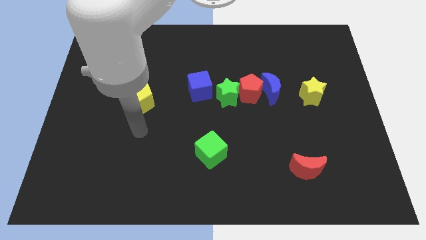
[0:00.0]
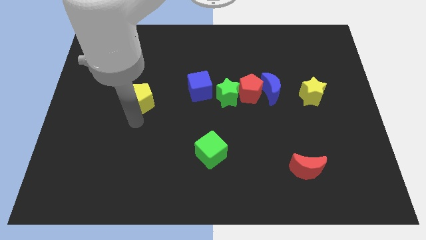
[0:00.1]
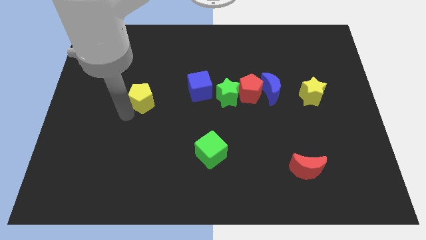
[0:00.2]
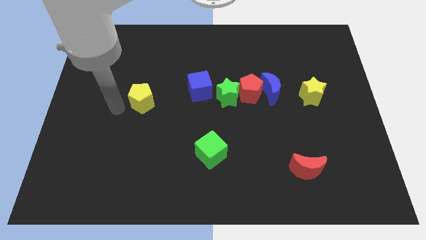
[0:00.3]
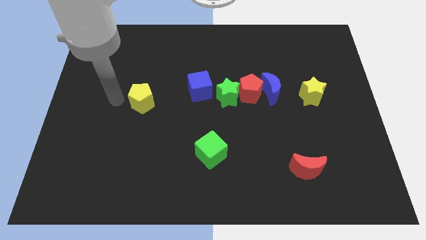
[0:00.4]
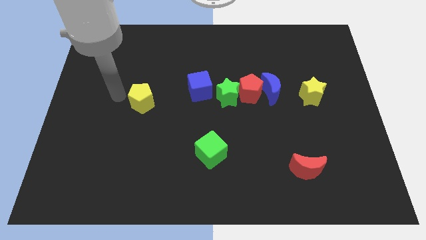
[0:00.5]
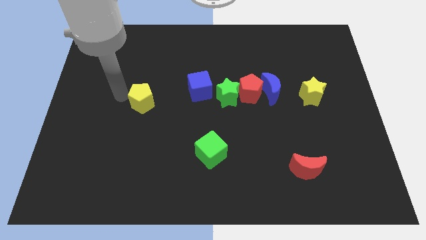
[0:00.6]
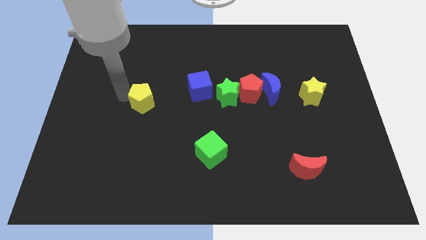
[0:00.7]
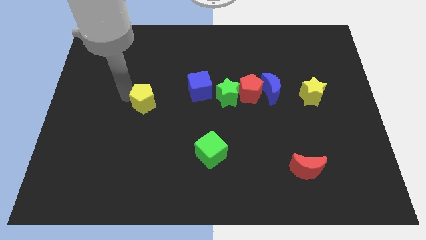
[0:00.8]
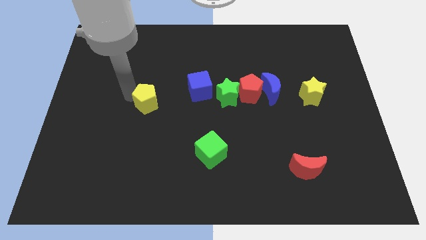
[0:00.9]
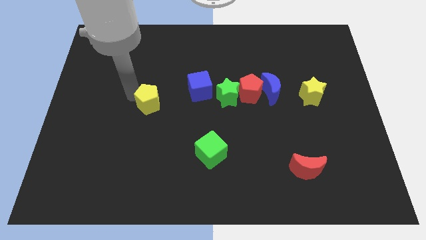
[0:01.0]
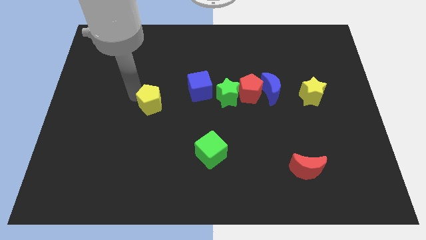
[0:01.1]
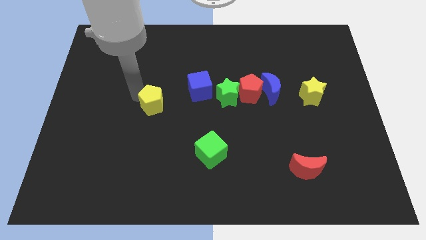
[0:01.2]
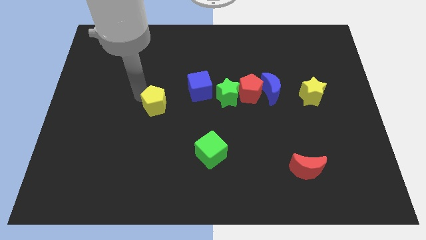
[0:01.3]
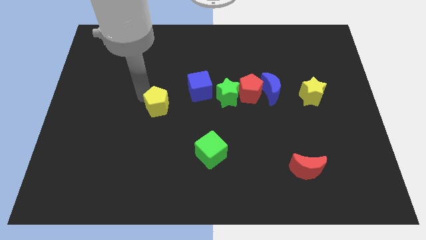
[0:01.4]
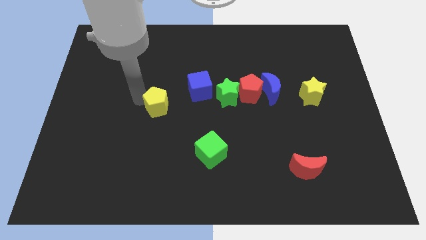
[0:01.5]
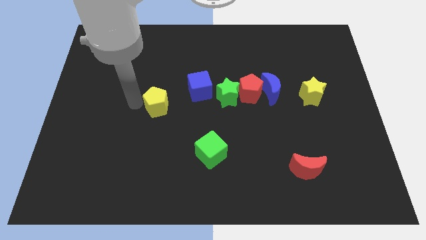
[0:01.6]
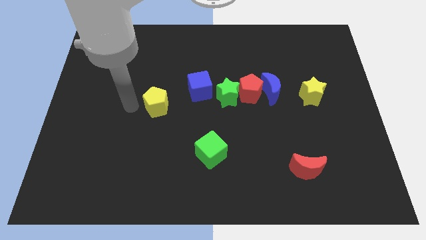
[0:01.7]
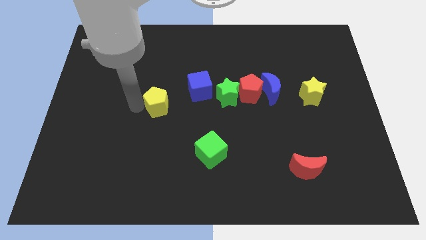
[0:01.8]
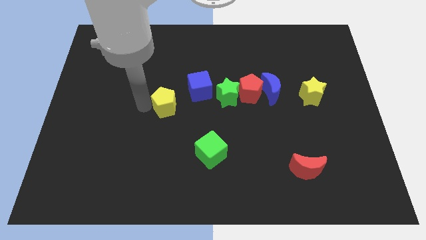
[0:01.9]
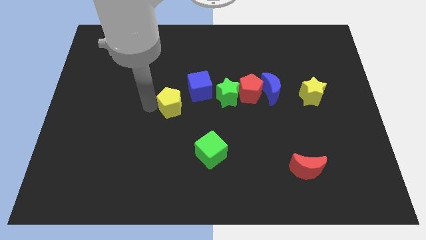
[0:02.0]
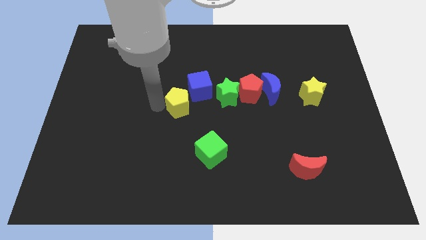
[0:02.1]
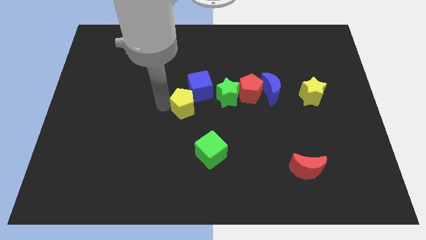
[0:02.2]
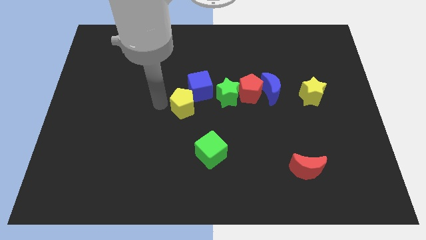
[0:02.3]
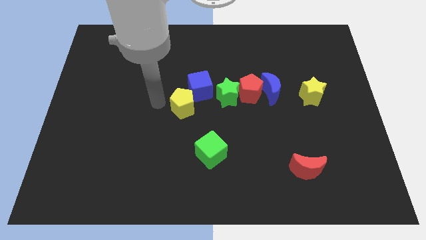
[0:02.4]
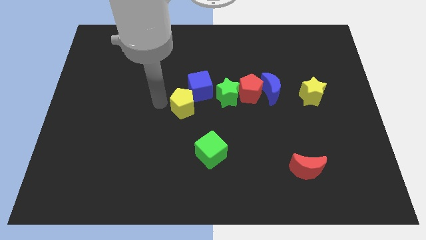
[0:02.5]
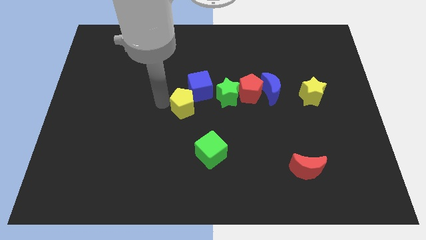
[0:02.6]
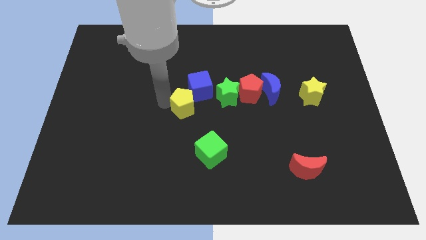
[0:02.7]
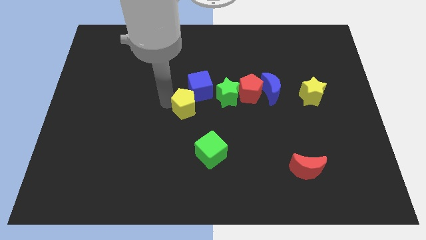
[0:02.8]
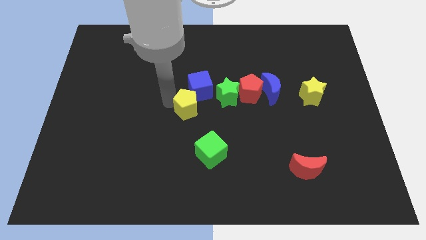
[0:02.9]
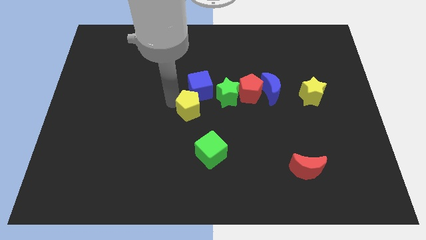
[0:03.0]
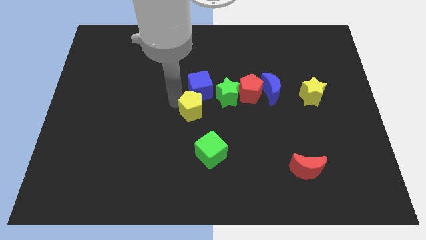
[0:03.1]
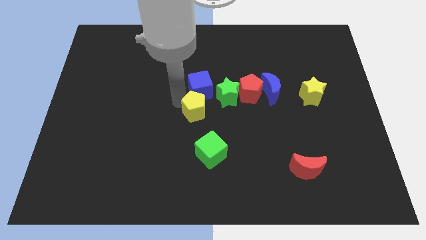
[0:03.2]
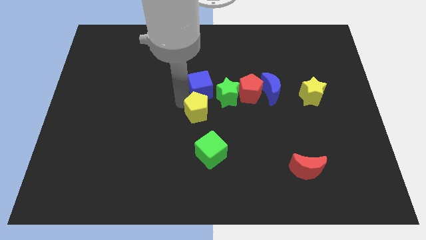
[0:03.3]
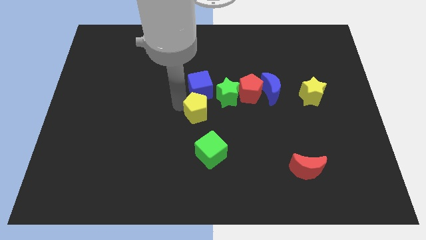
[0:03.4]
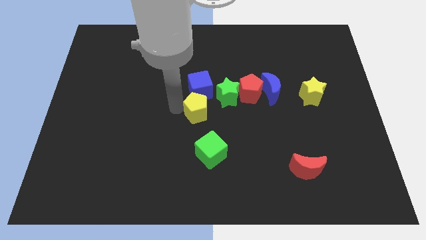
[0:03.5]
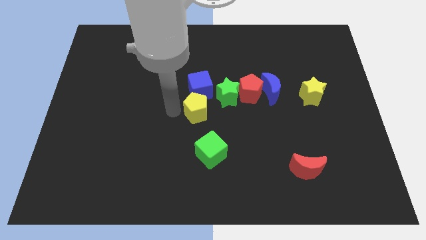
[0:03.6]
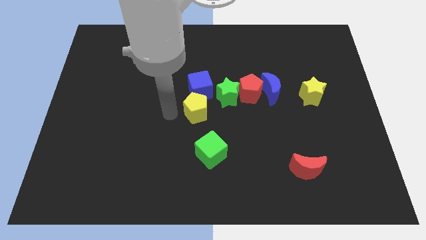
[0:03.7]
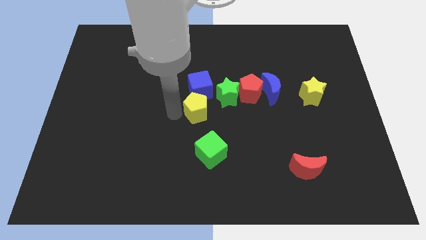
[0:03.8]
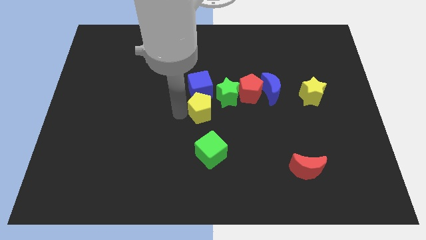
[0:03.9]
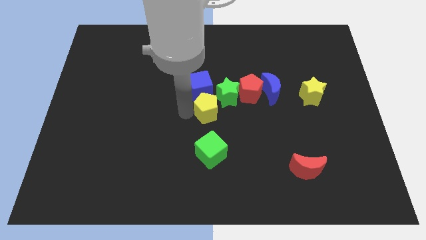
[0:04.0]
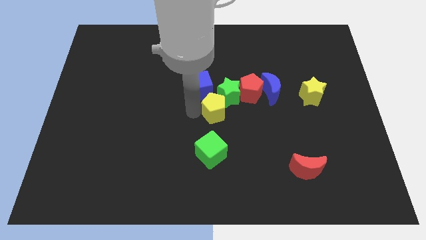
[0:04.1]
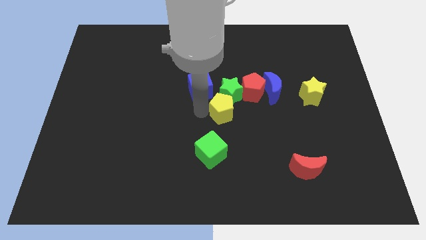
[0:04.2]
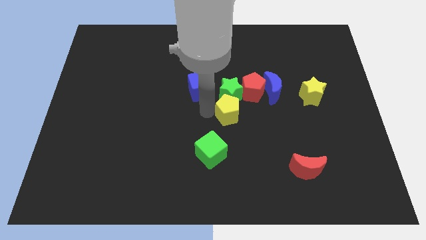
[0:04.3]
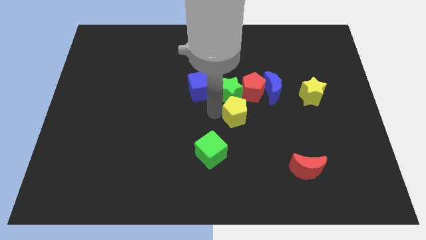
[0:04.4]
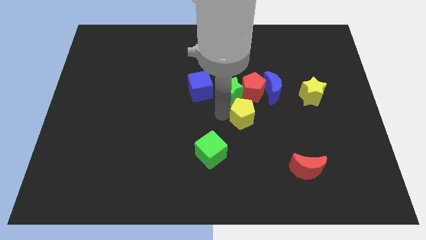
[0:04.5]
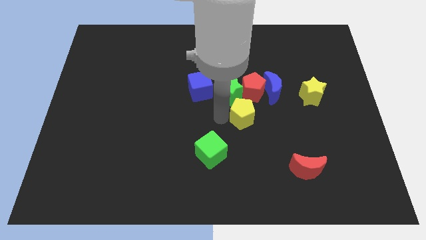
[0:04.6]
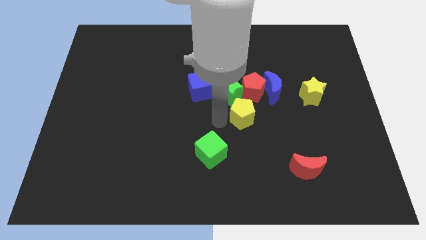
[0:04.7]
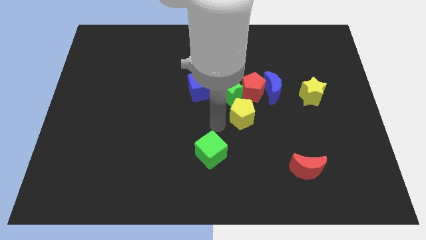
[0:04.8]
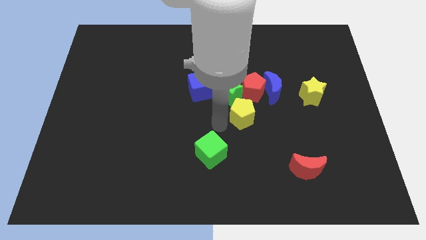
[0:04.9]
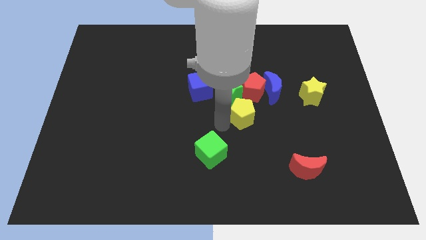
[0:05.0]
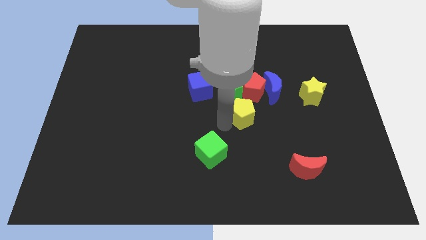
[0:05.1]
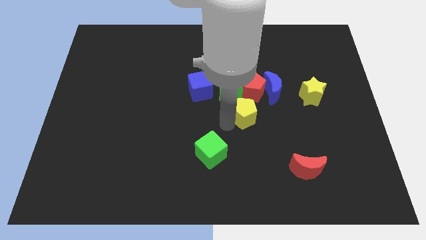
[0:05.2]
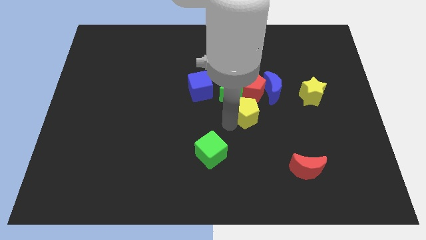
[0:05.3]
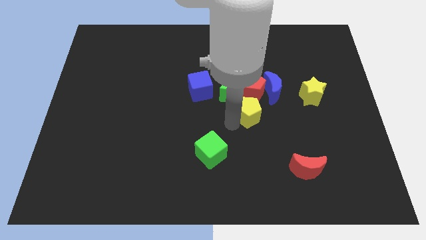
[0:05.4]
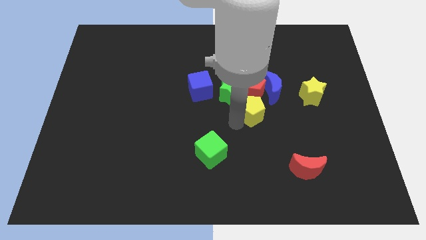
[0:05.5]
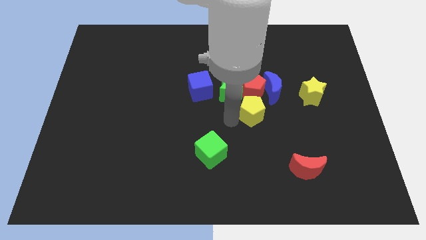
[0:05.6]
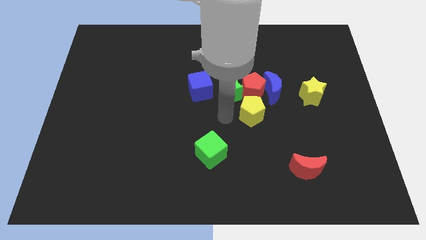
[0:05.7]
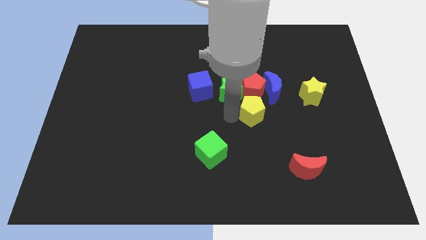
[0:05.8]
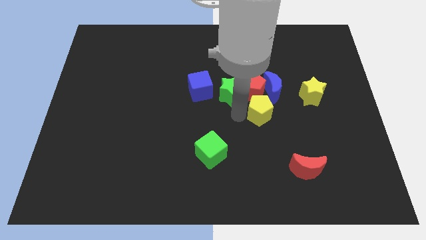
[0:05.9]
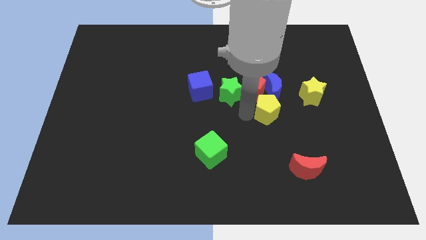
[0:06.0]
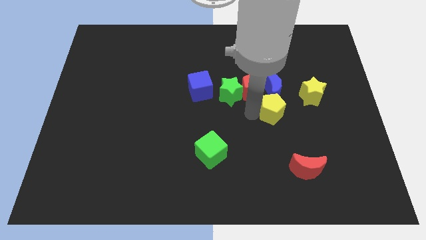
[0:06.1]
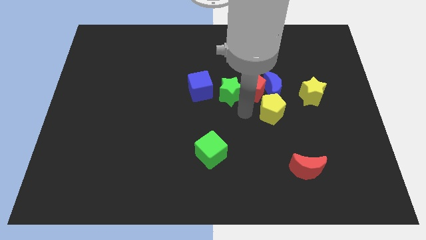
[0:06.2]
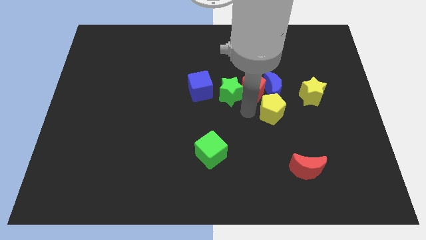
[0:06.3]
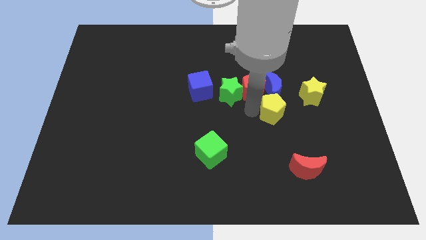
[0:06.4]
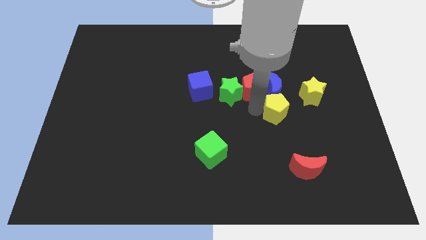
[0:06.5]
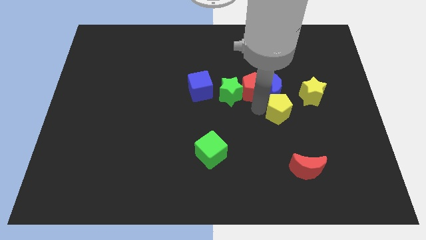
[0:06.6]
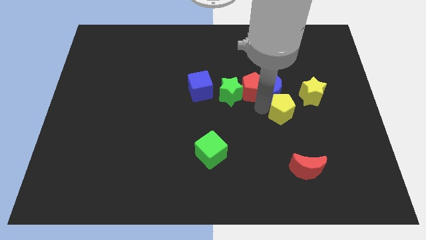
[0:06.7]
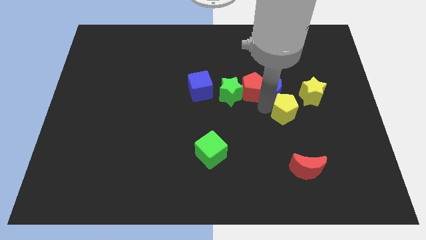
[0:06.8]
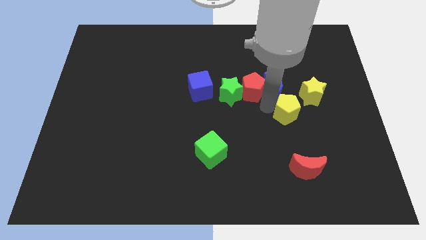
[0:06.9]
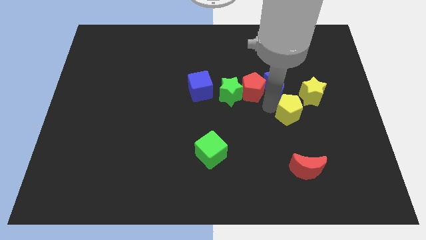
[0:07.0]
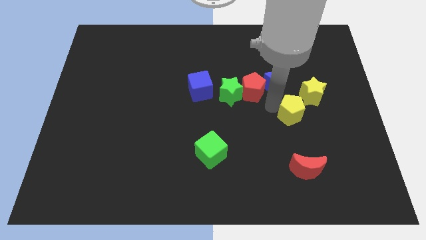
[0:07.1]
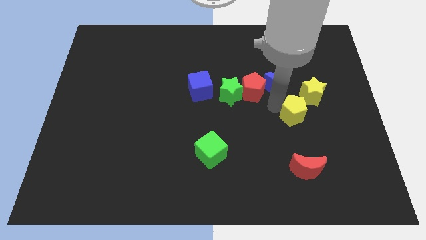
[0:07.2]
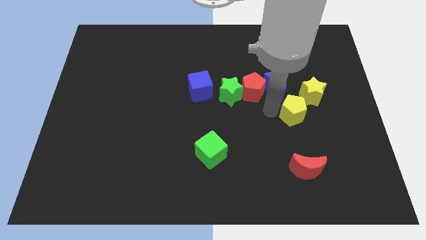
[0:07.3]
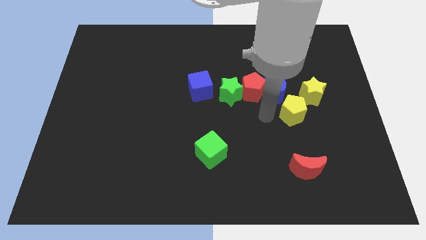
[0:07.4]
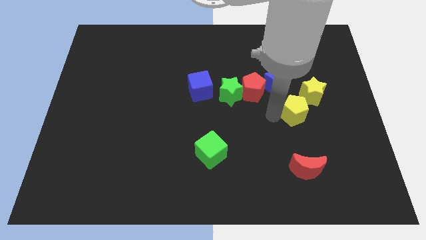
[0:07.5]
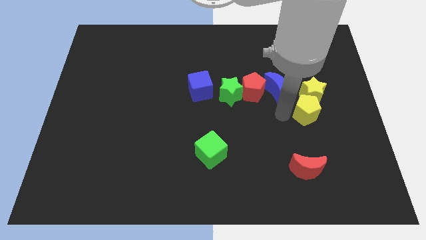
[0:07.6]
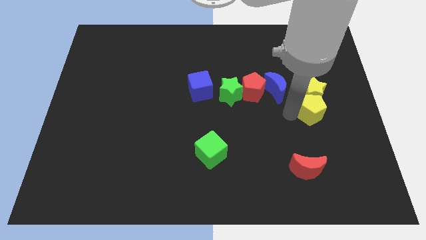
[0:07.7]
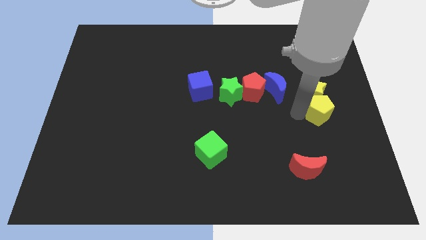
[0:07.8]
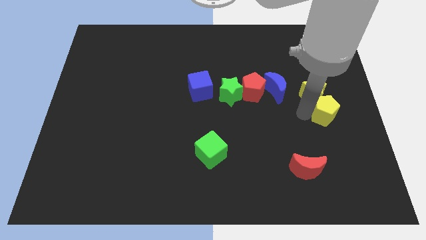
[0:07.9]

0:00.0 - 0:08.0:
push the yellow pentagon to the center right

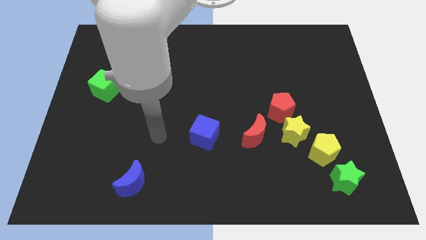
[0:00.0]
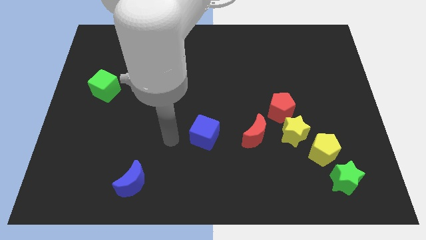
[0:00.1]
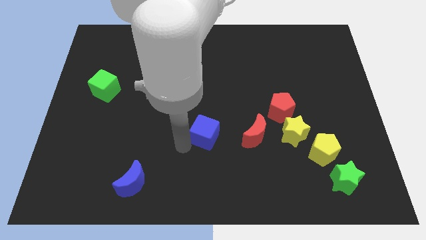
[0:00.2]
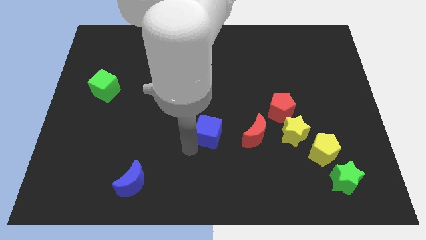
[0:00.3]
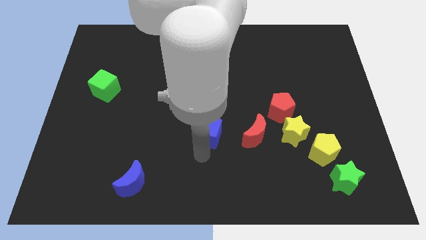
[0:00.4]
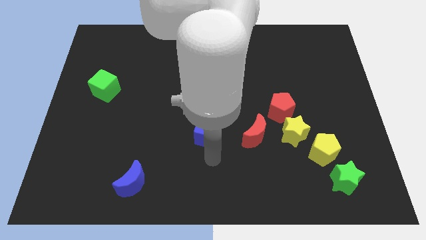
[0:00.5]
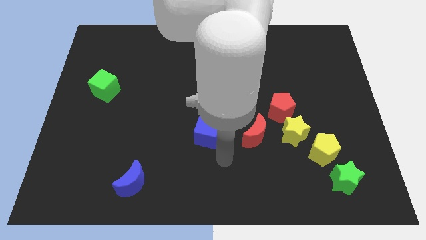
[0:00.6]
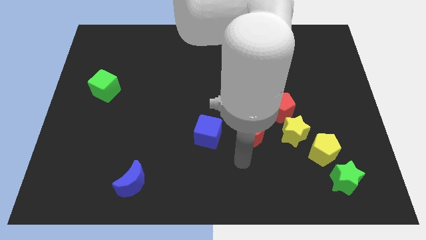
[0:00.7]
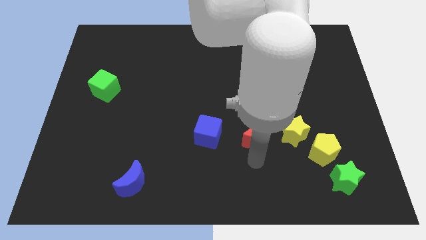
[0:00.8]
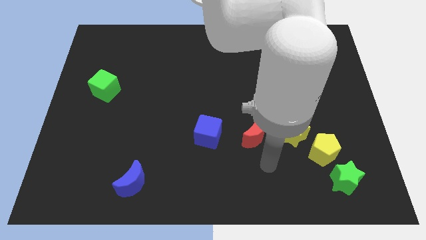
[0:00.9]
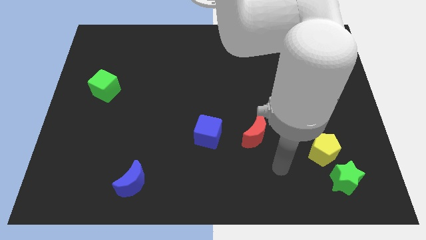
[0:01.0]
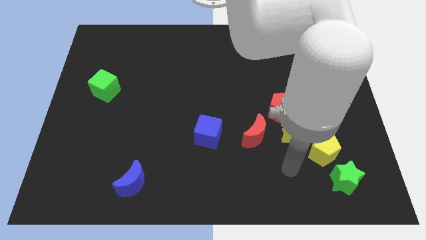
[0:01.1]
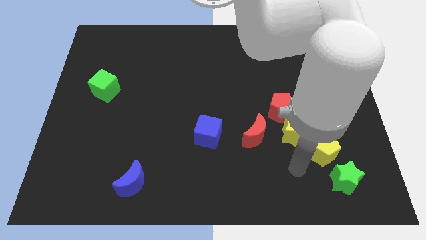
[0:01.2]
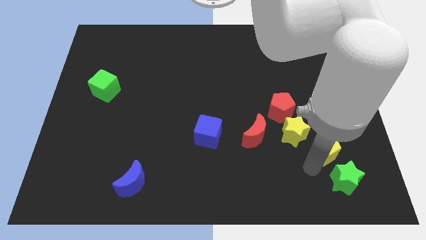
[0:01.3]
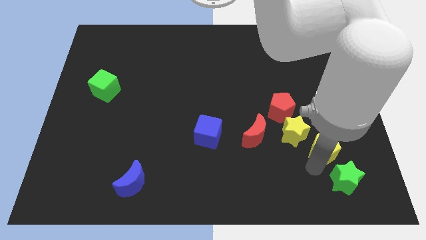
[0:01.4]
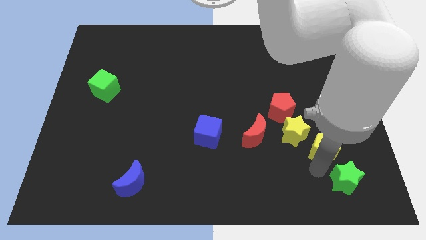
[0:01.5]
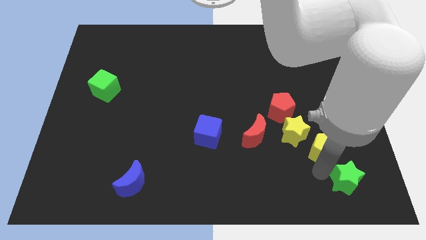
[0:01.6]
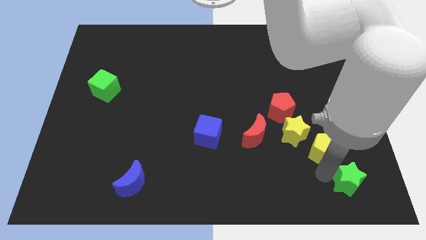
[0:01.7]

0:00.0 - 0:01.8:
move the green star to the bottom right
